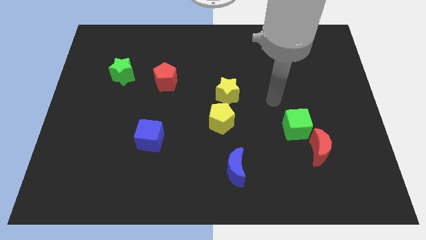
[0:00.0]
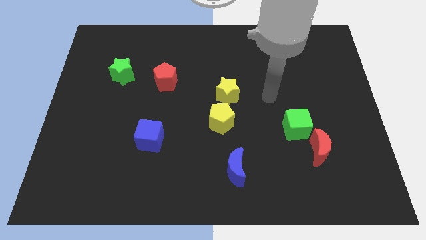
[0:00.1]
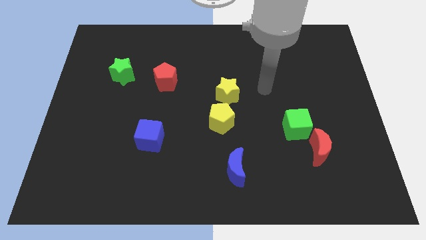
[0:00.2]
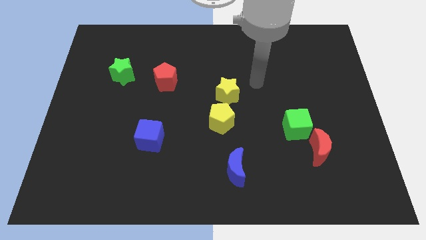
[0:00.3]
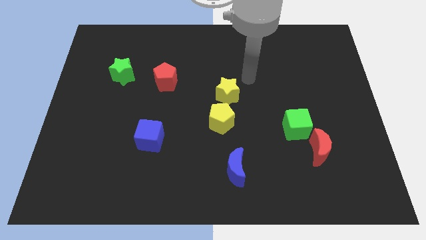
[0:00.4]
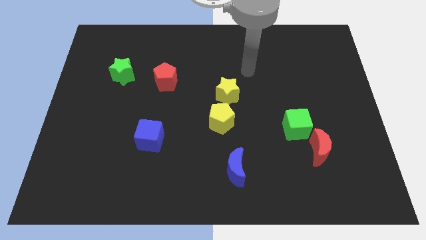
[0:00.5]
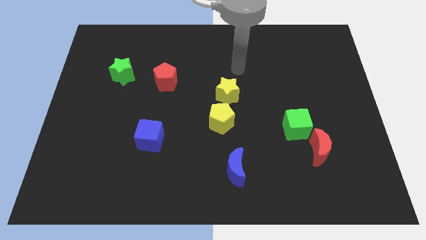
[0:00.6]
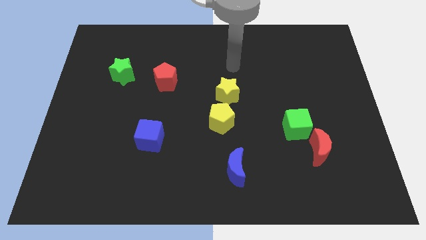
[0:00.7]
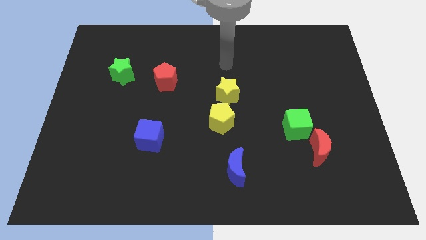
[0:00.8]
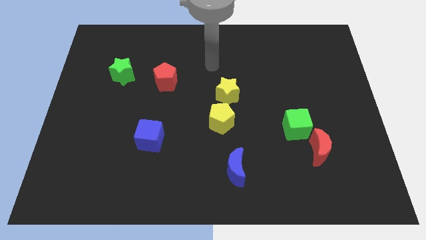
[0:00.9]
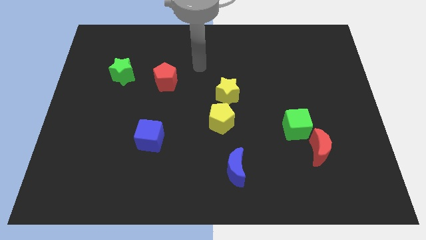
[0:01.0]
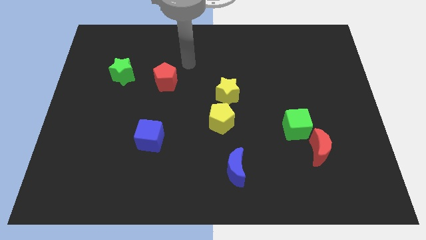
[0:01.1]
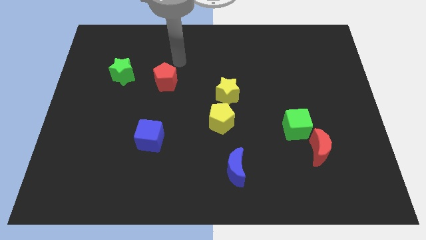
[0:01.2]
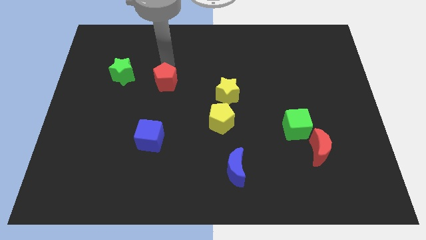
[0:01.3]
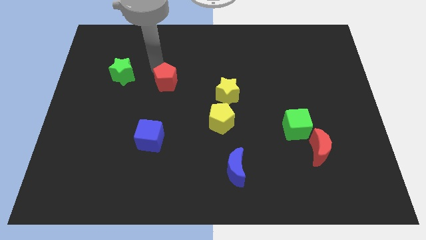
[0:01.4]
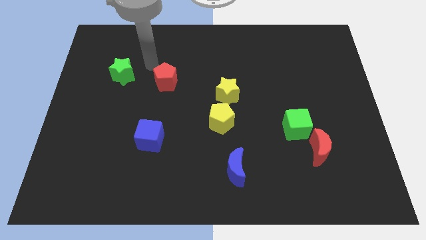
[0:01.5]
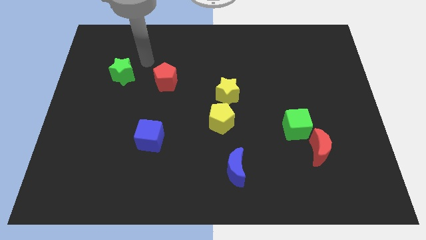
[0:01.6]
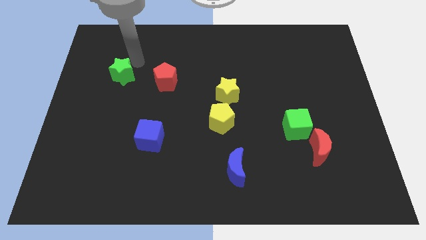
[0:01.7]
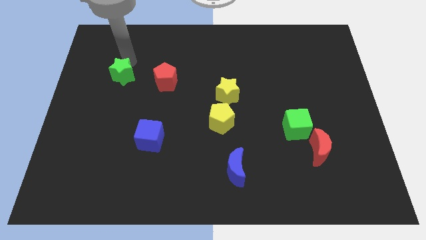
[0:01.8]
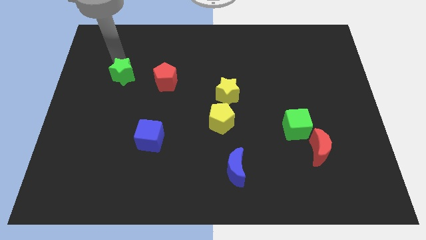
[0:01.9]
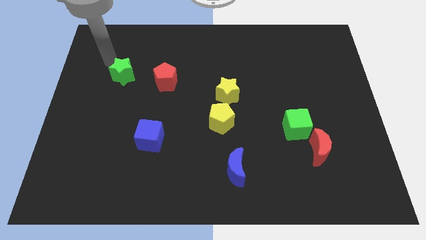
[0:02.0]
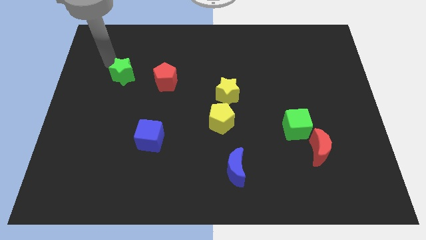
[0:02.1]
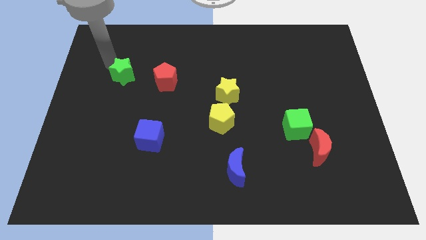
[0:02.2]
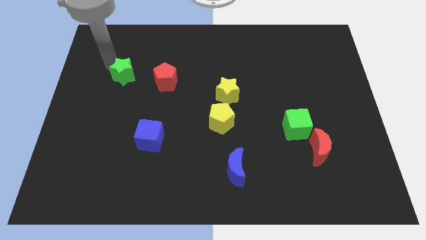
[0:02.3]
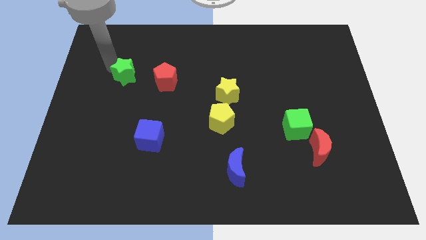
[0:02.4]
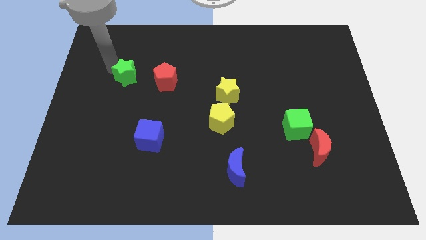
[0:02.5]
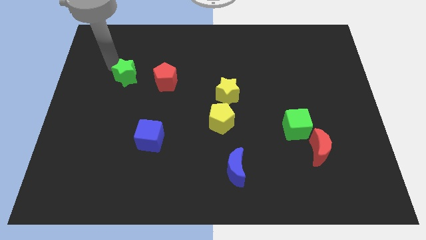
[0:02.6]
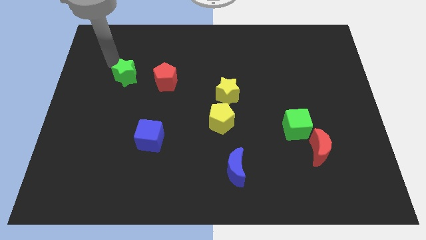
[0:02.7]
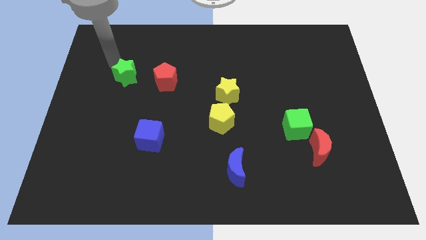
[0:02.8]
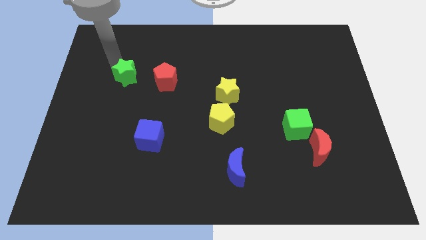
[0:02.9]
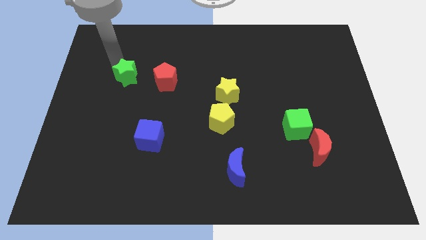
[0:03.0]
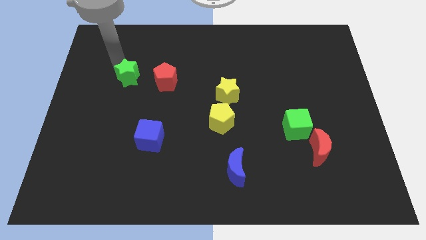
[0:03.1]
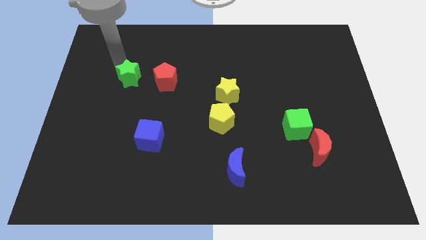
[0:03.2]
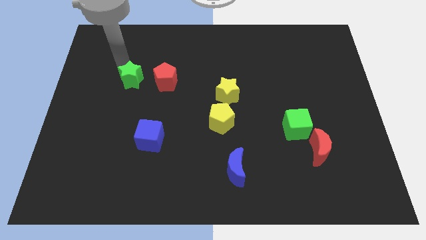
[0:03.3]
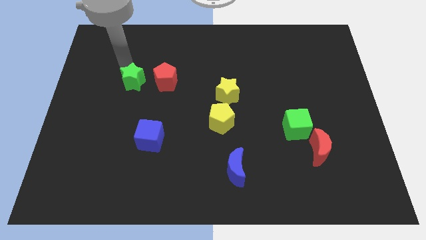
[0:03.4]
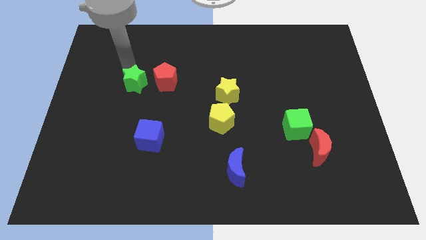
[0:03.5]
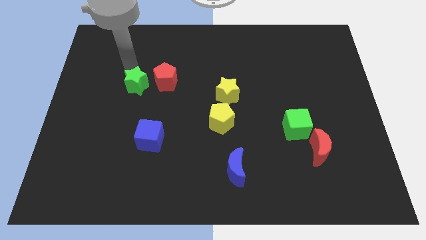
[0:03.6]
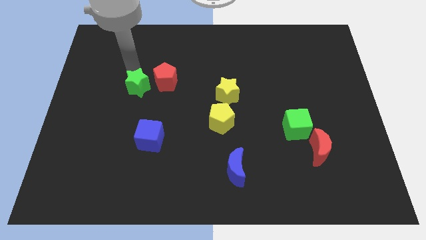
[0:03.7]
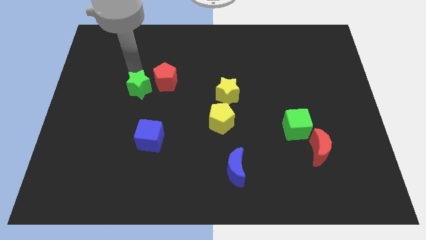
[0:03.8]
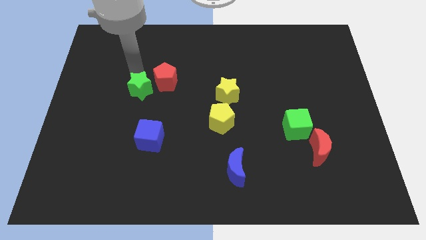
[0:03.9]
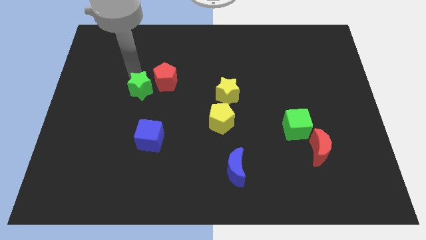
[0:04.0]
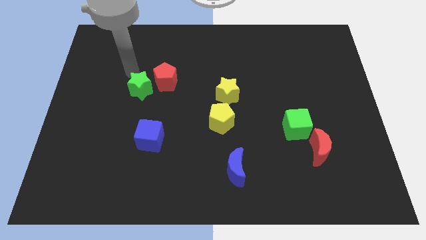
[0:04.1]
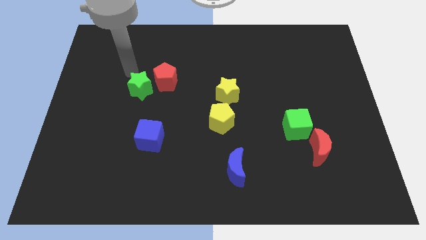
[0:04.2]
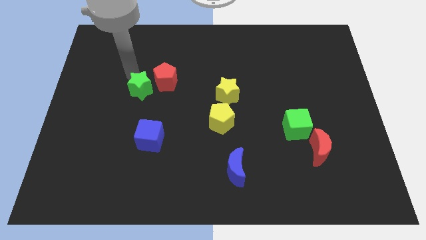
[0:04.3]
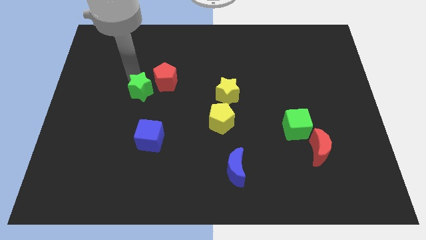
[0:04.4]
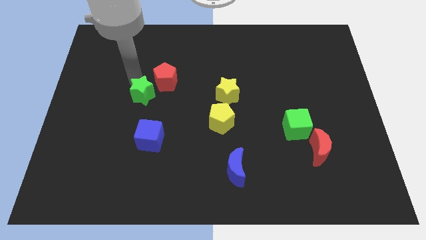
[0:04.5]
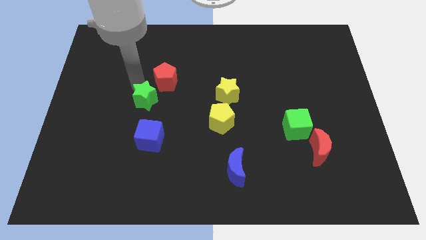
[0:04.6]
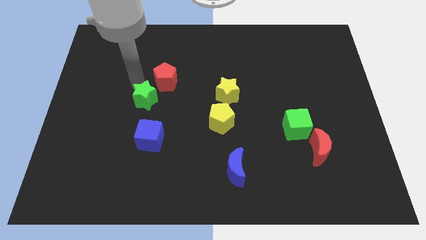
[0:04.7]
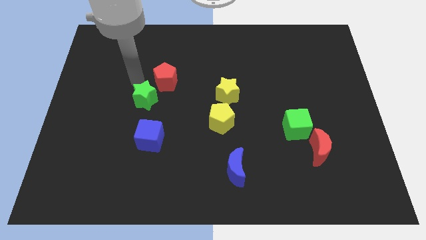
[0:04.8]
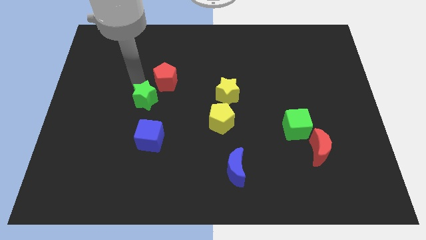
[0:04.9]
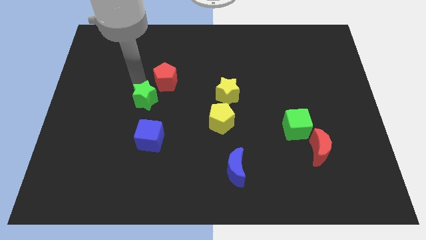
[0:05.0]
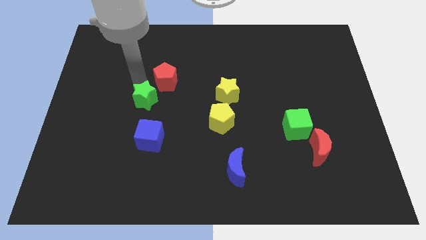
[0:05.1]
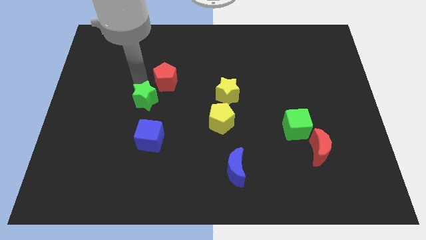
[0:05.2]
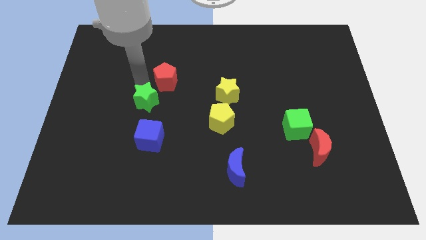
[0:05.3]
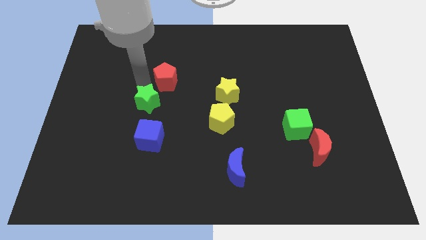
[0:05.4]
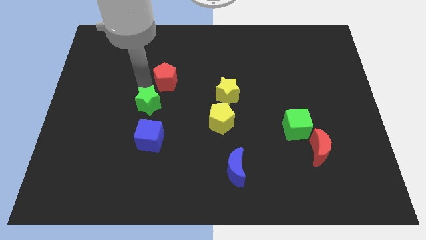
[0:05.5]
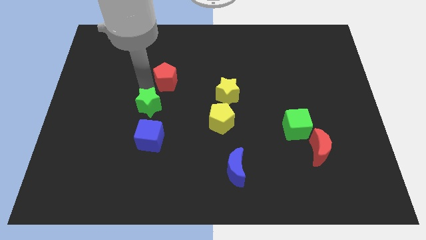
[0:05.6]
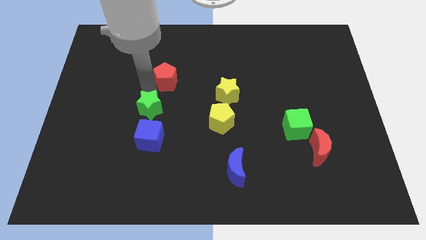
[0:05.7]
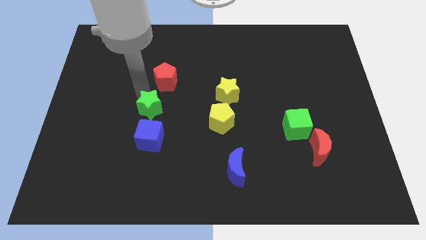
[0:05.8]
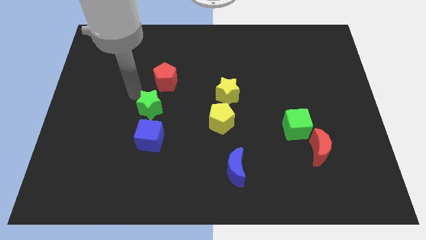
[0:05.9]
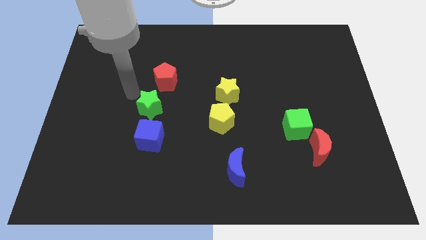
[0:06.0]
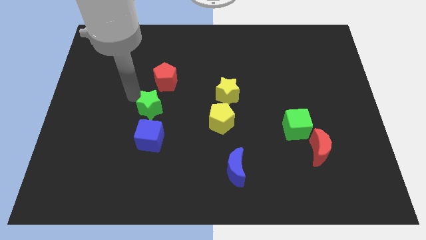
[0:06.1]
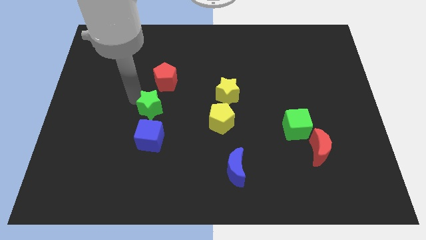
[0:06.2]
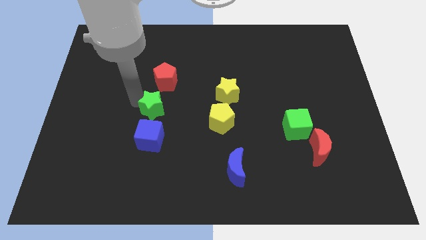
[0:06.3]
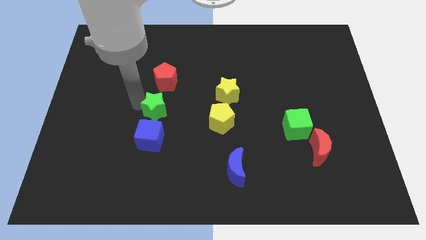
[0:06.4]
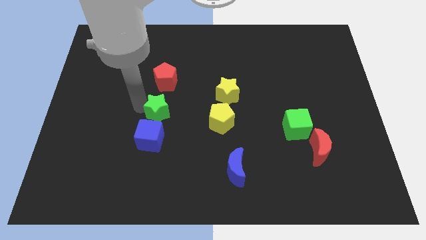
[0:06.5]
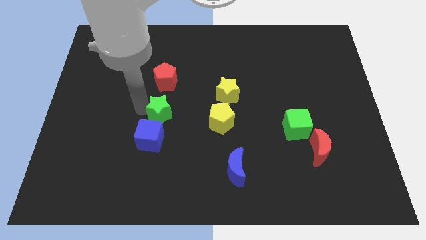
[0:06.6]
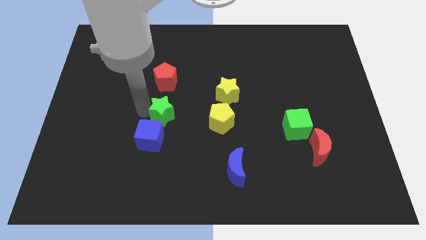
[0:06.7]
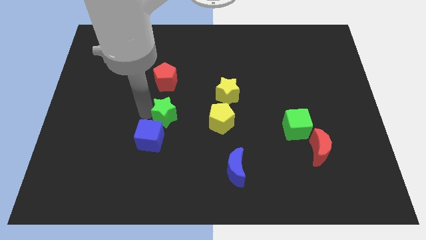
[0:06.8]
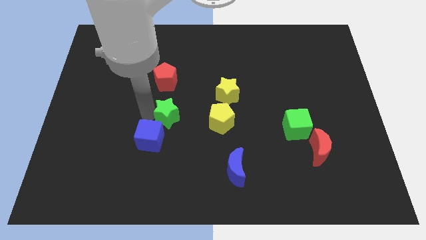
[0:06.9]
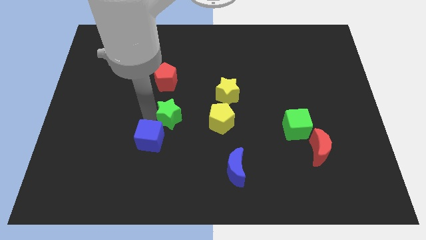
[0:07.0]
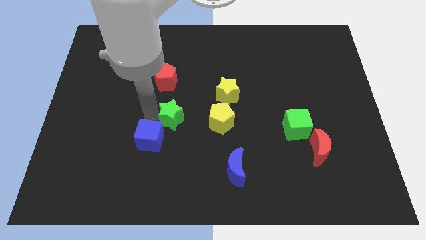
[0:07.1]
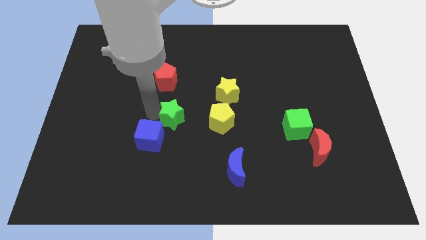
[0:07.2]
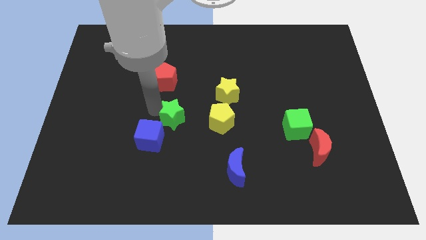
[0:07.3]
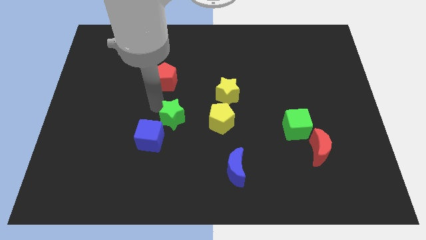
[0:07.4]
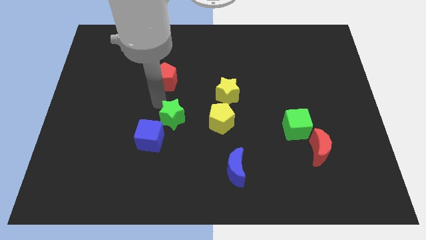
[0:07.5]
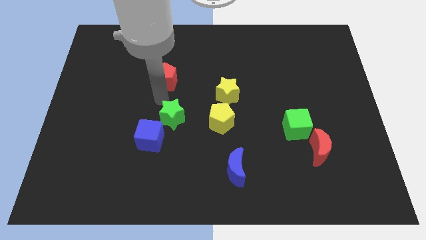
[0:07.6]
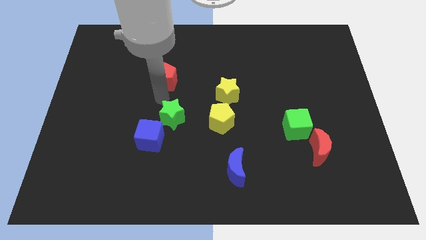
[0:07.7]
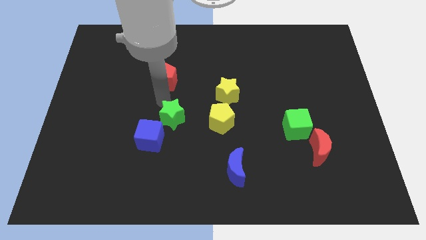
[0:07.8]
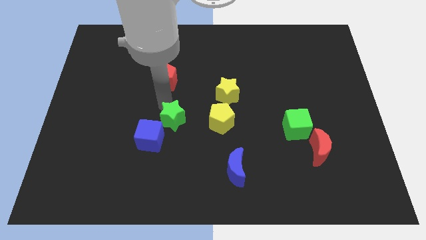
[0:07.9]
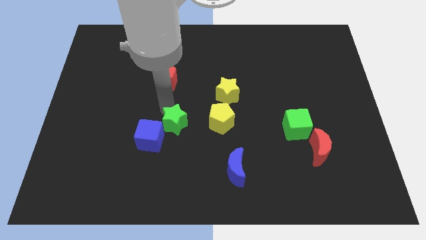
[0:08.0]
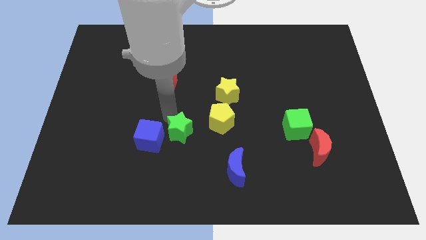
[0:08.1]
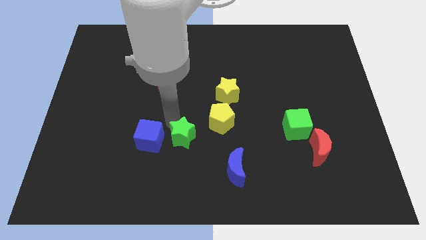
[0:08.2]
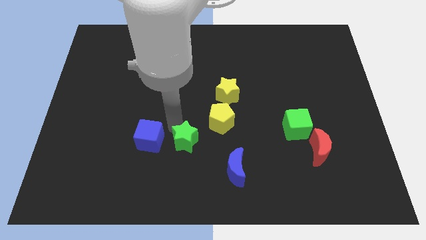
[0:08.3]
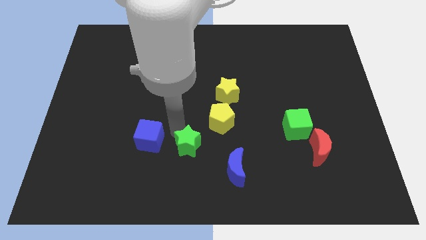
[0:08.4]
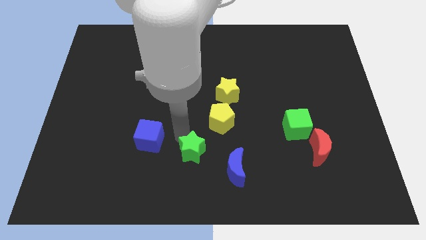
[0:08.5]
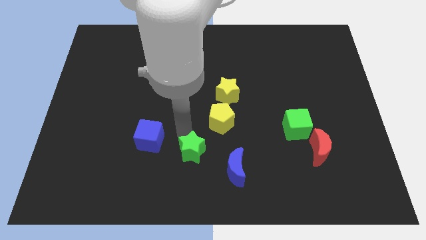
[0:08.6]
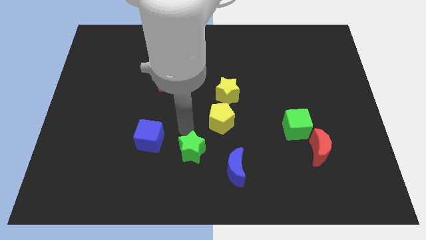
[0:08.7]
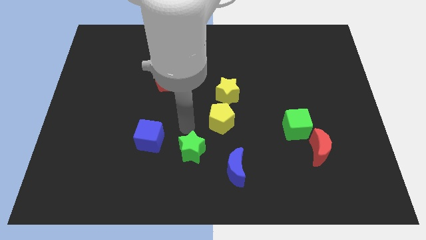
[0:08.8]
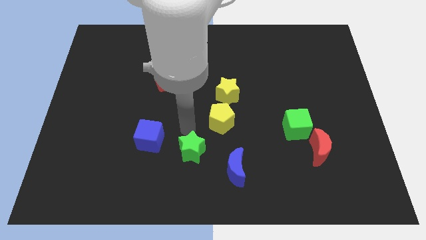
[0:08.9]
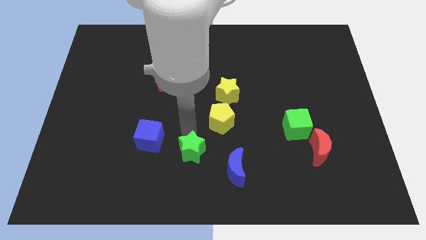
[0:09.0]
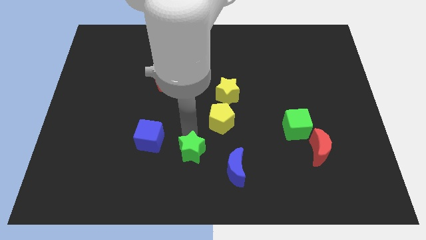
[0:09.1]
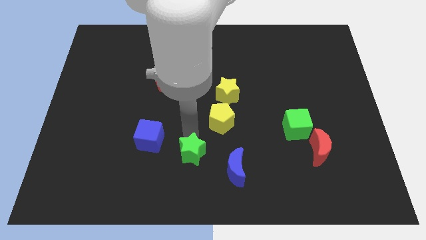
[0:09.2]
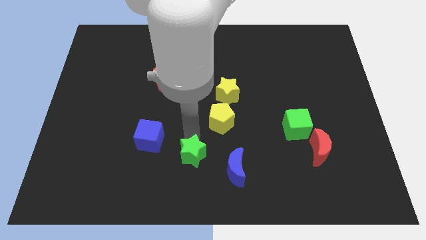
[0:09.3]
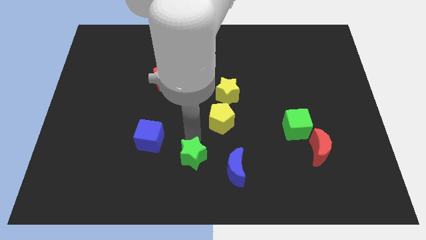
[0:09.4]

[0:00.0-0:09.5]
slide the green star to the bottom side
